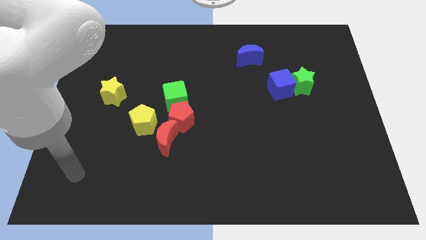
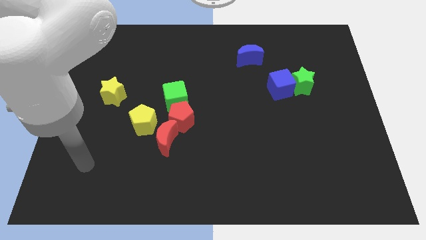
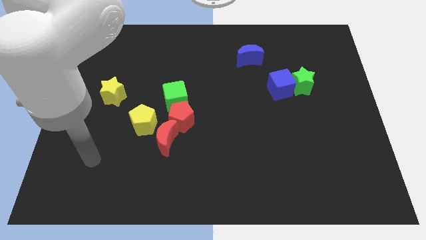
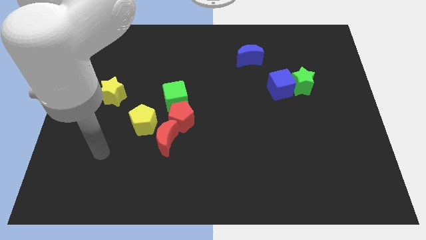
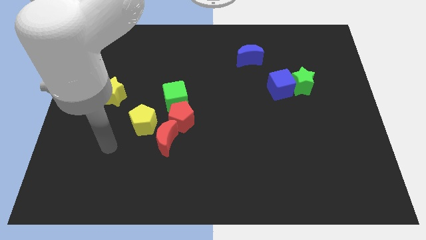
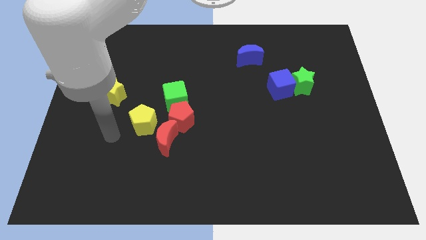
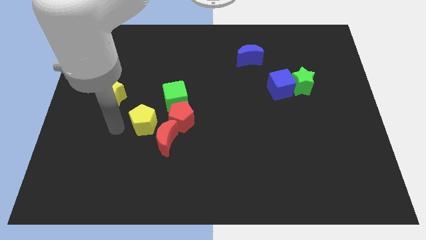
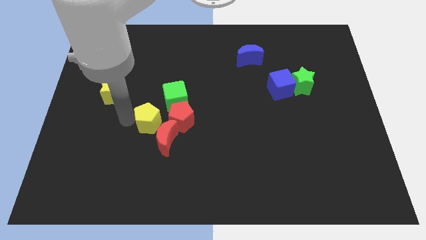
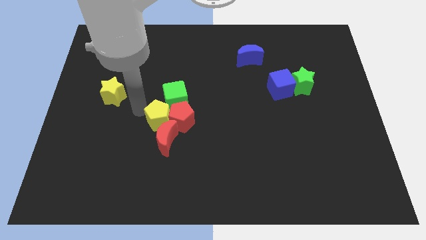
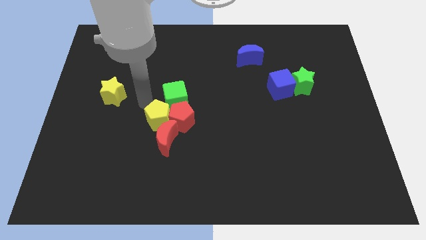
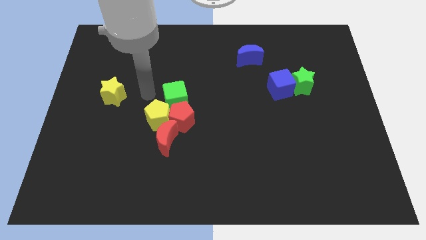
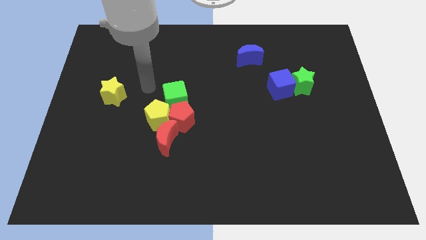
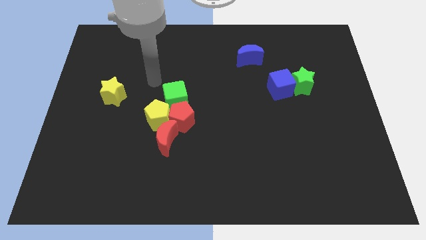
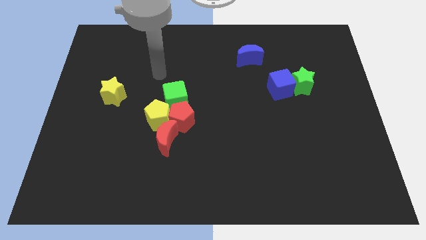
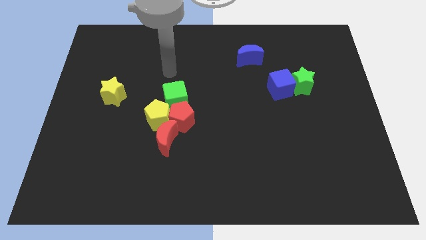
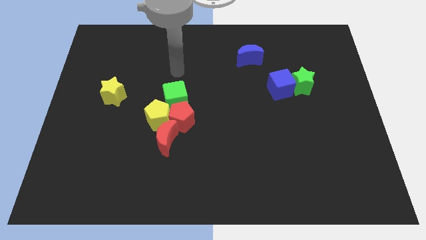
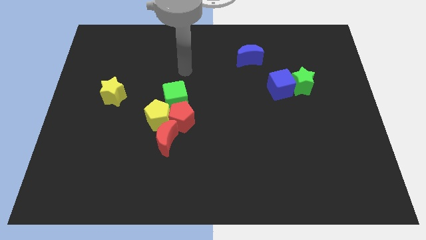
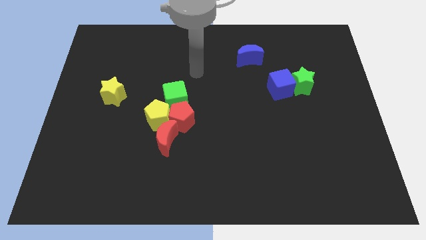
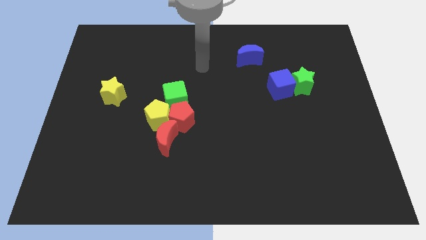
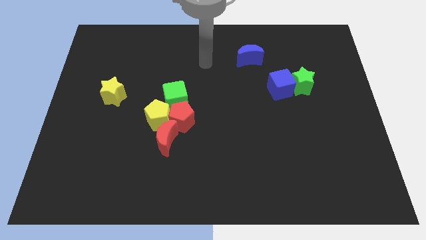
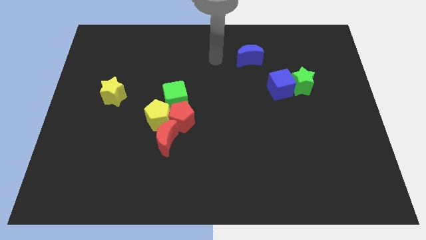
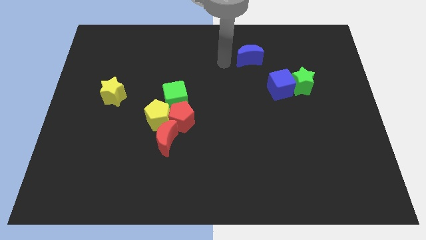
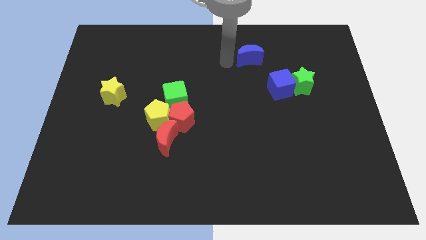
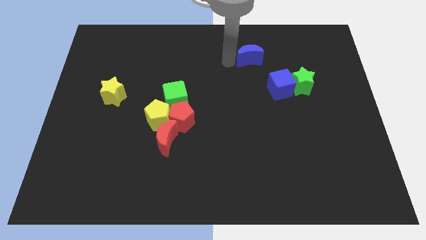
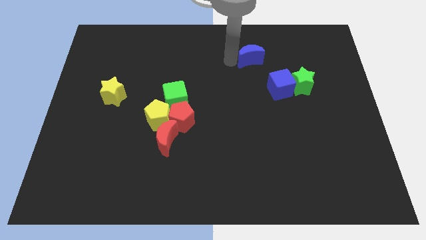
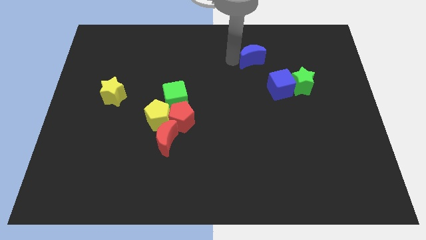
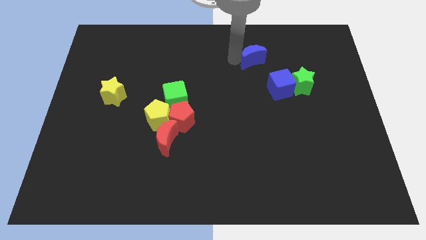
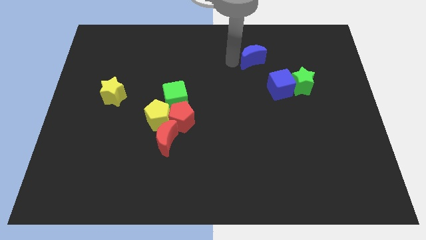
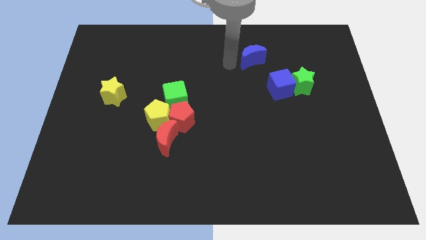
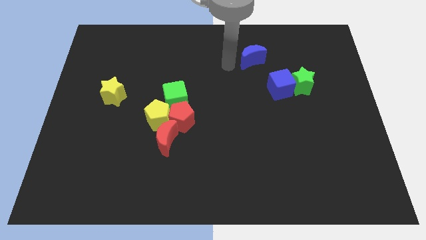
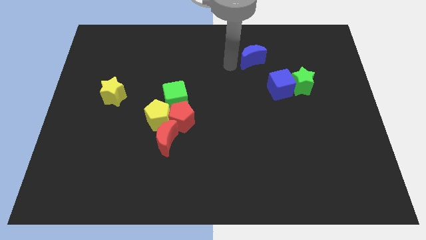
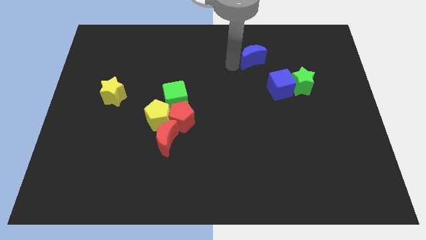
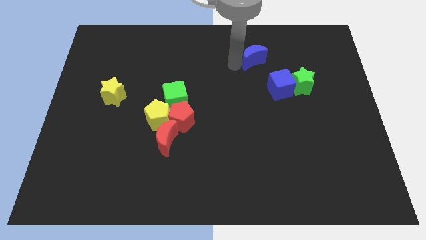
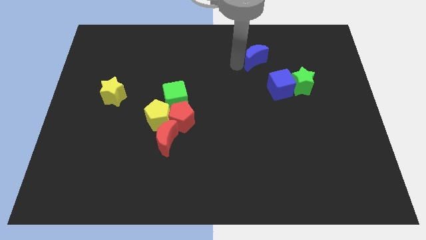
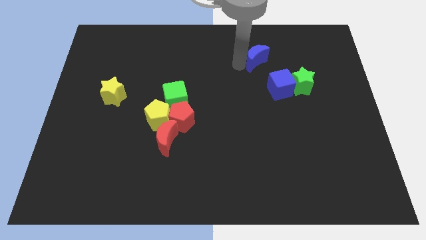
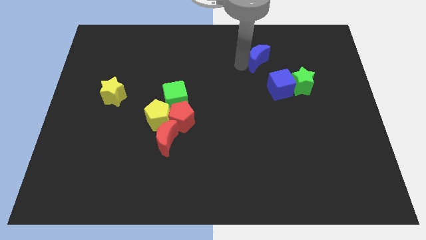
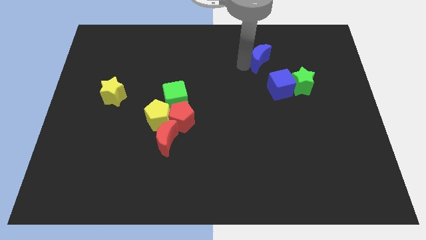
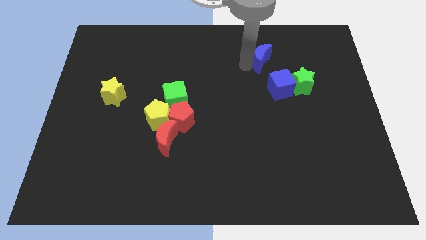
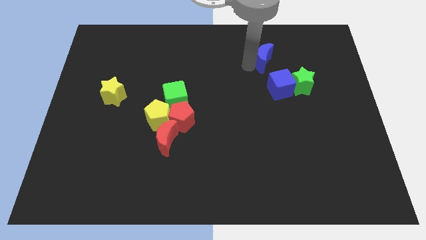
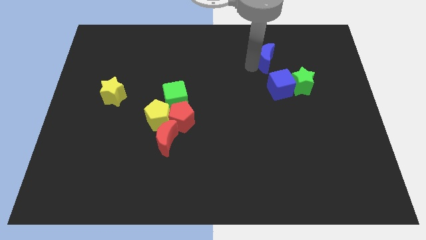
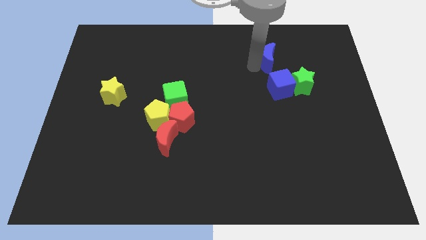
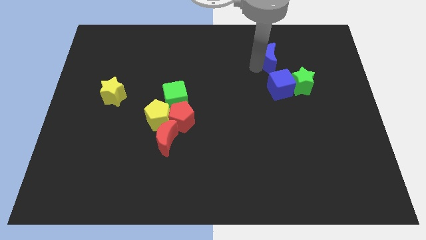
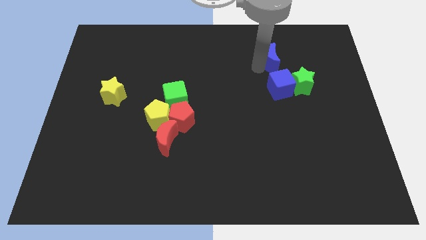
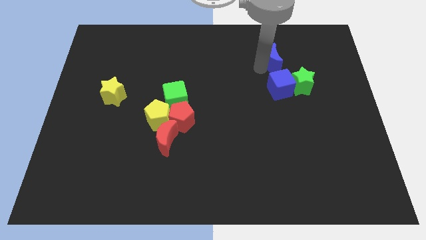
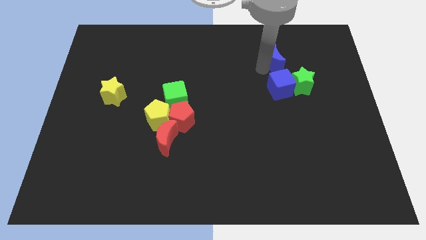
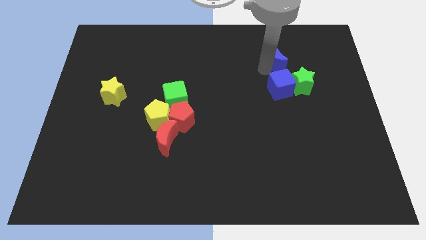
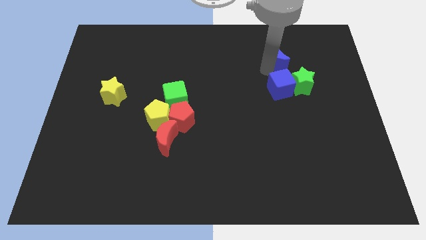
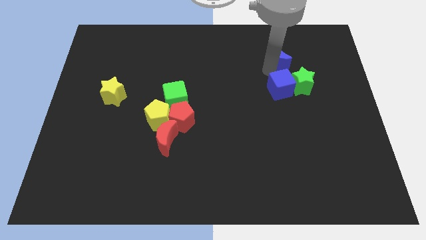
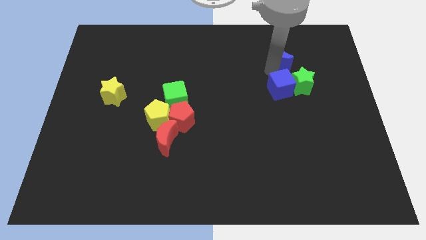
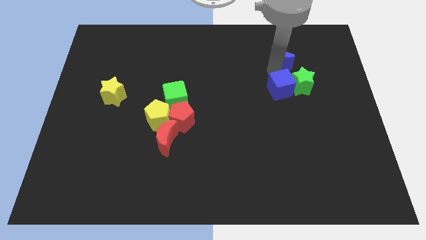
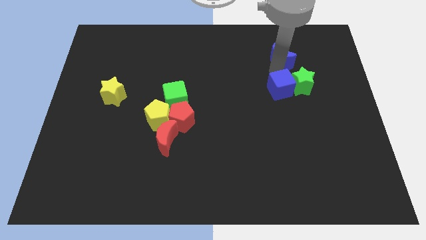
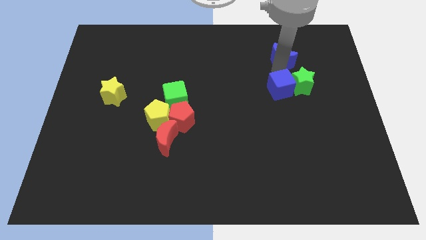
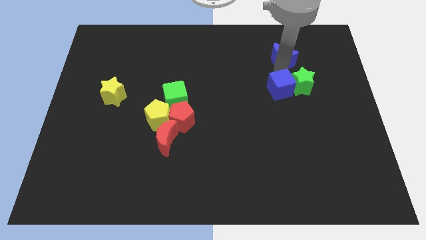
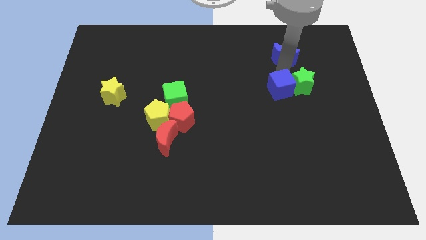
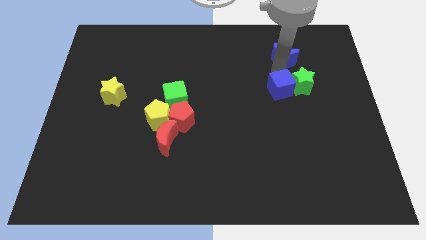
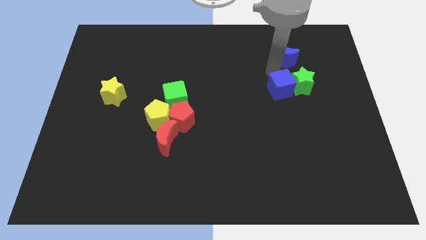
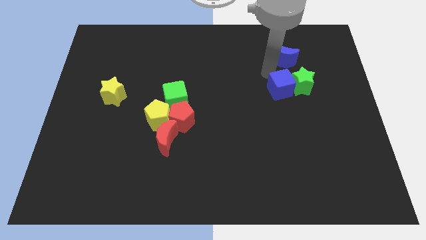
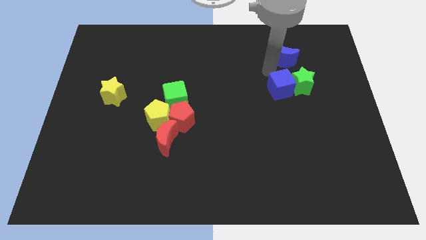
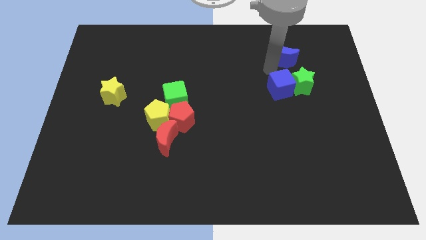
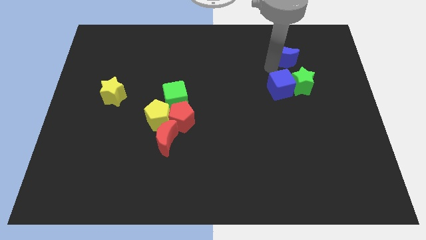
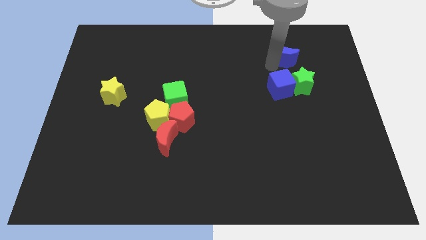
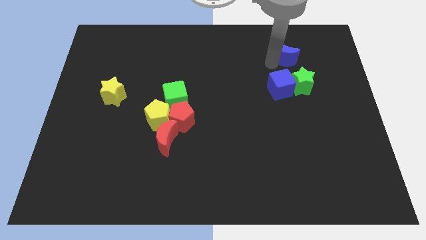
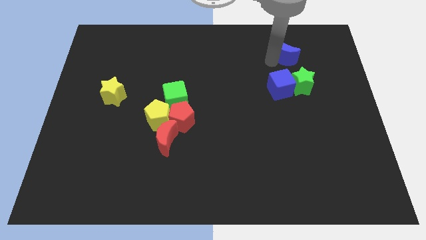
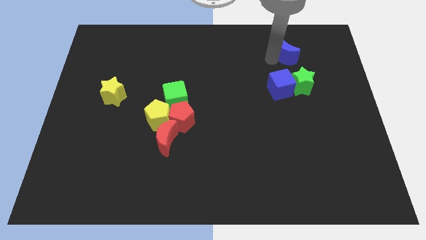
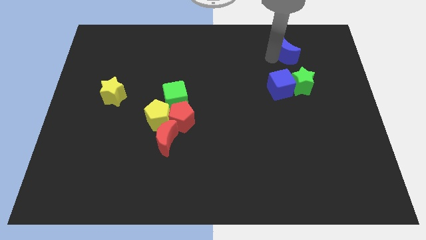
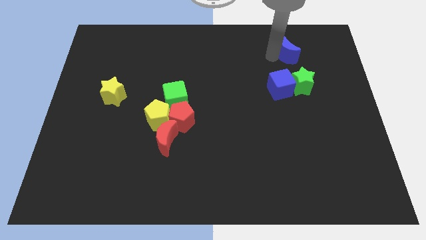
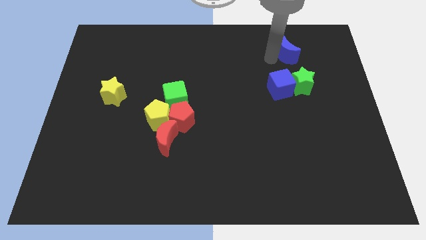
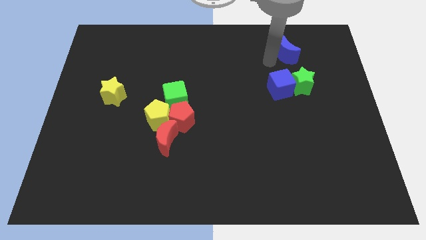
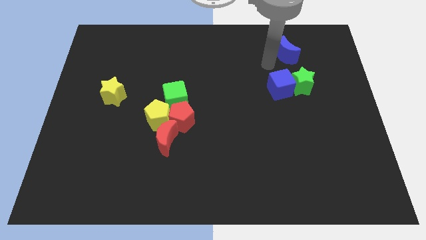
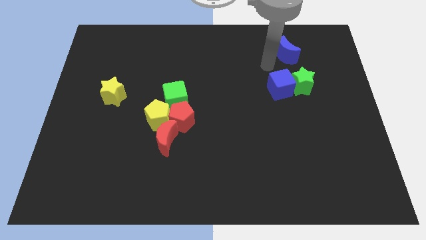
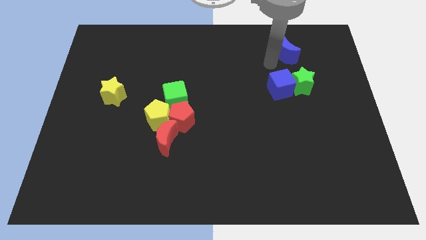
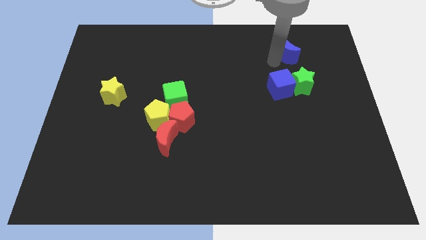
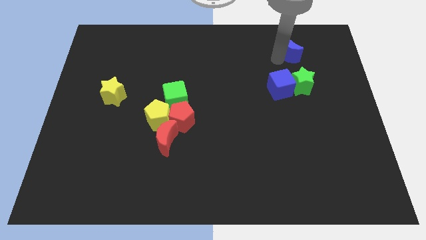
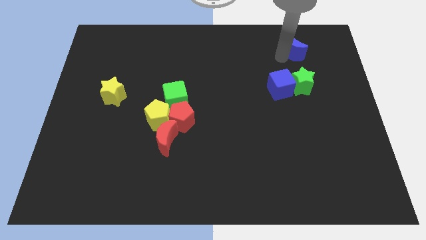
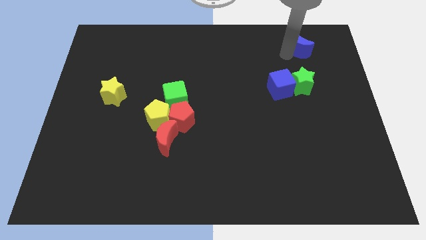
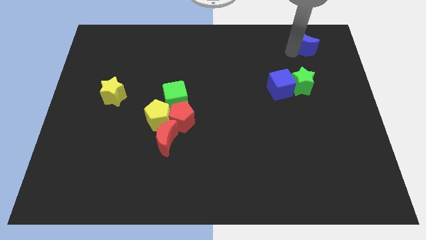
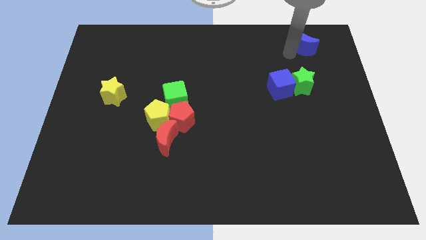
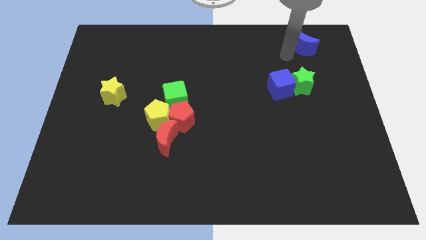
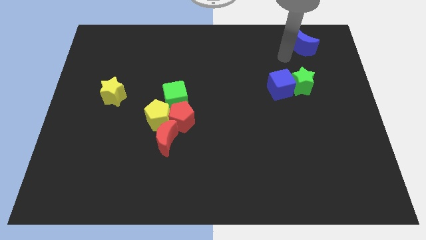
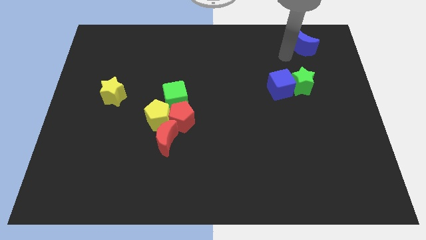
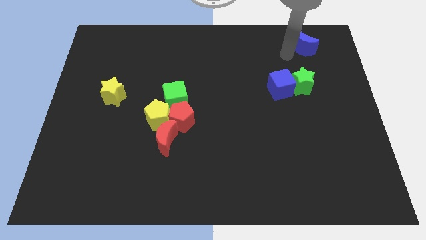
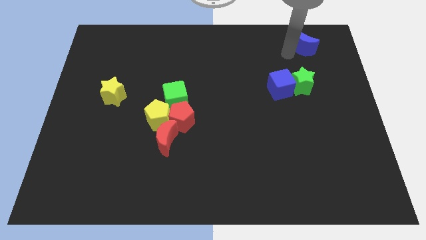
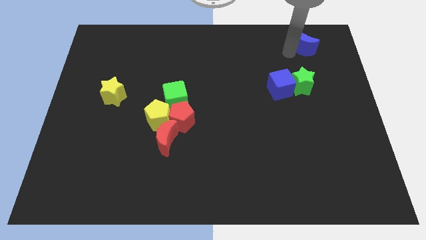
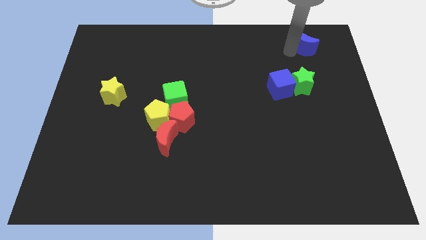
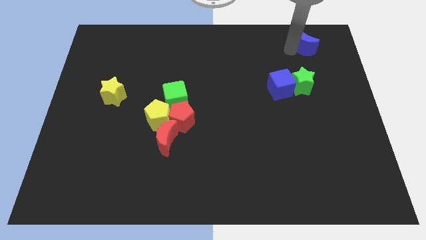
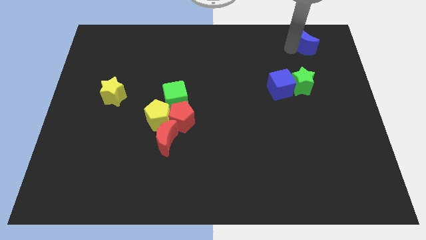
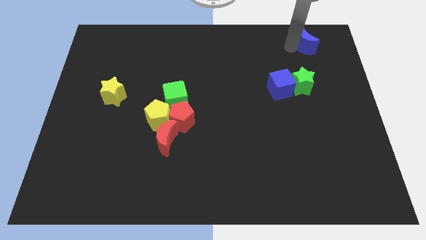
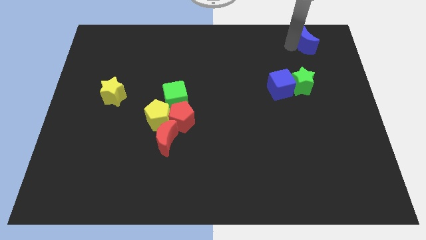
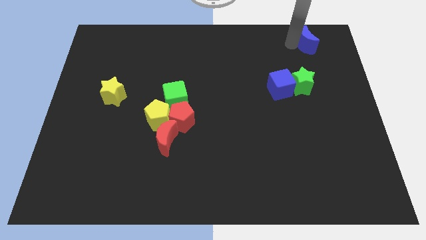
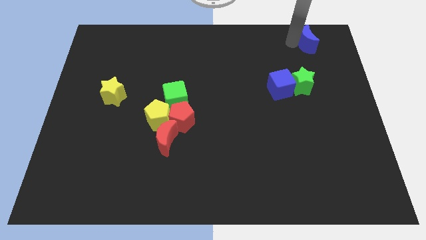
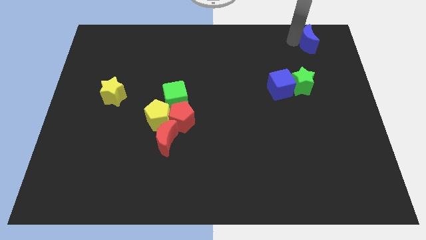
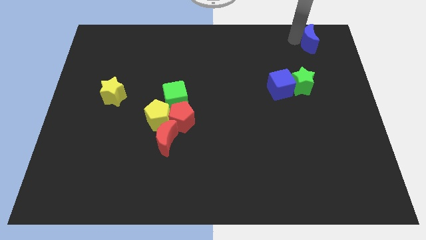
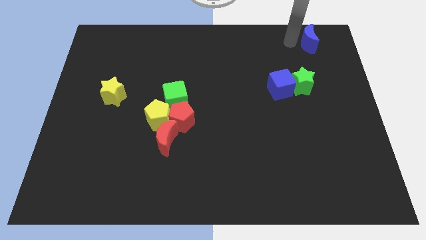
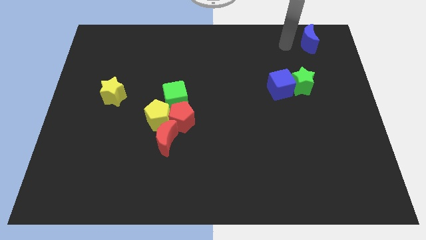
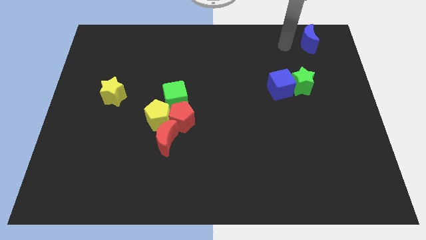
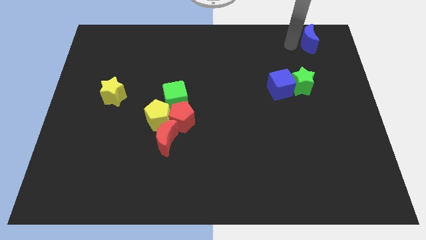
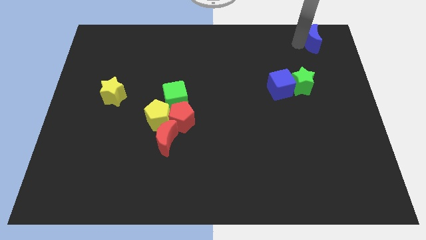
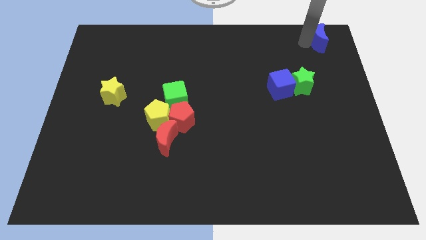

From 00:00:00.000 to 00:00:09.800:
move the blue moon to the top right corner
